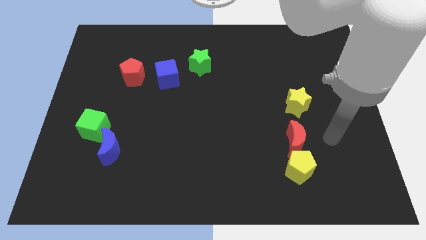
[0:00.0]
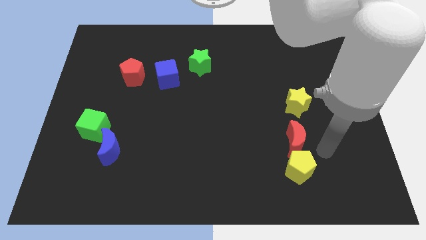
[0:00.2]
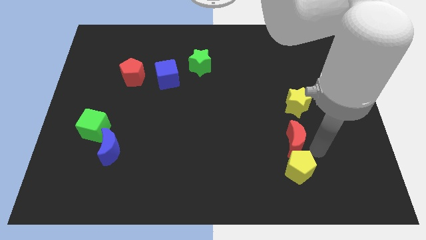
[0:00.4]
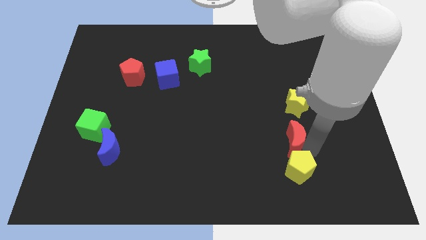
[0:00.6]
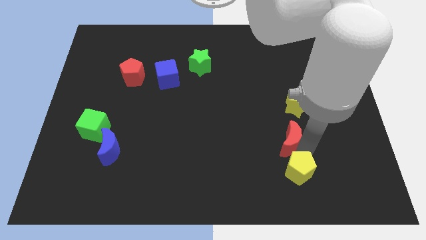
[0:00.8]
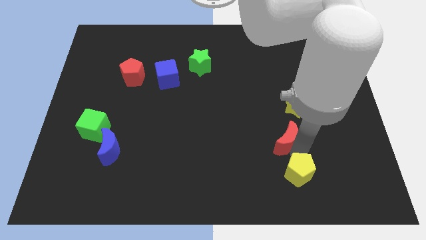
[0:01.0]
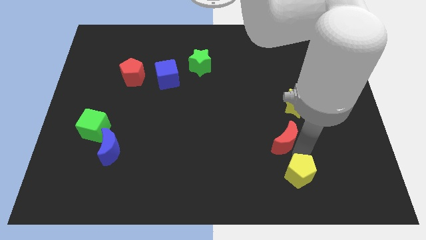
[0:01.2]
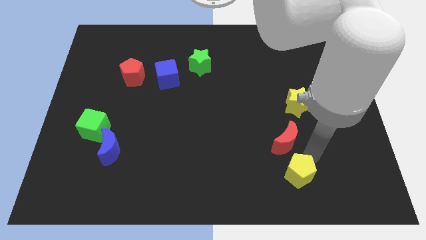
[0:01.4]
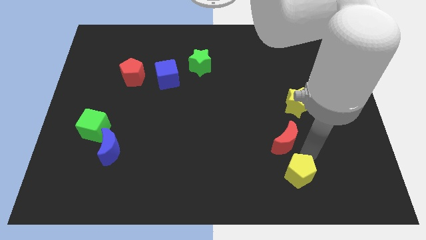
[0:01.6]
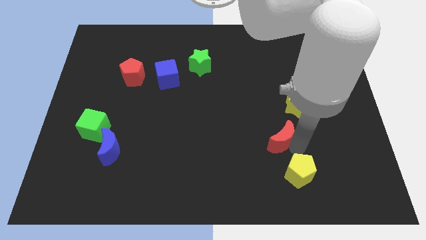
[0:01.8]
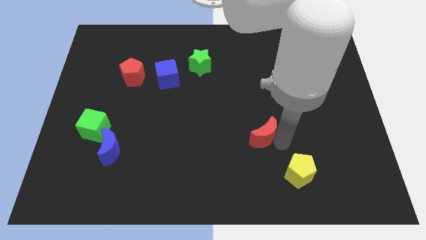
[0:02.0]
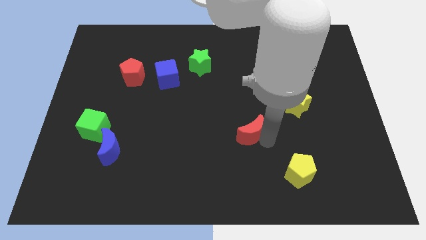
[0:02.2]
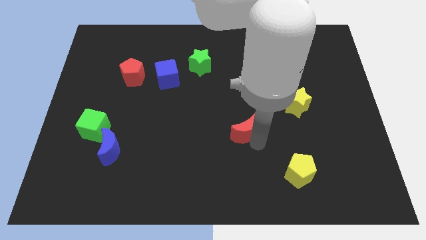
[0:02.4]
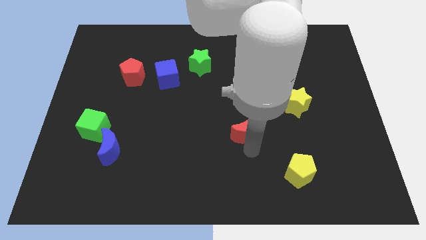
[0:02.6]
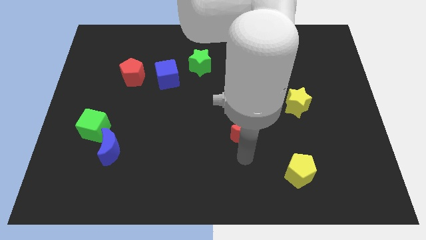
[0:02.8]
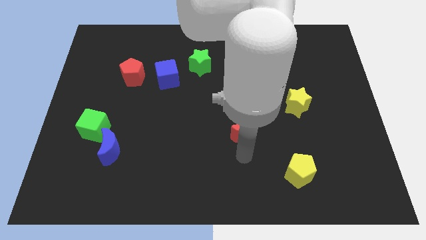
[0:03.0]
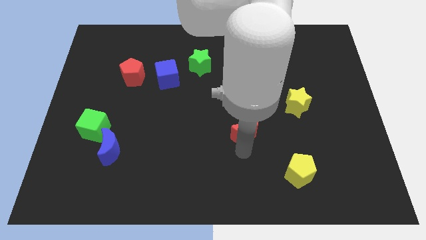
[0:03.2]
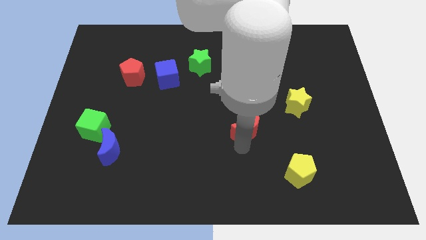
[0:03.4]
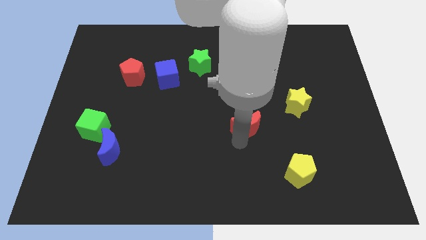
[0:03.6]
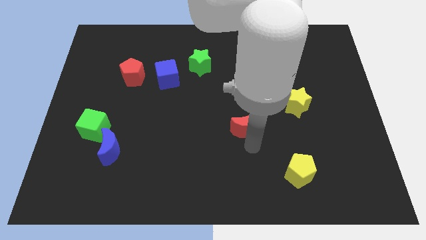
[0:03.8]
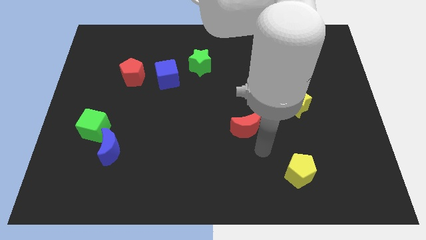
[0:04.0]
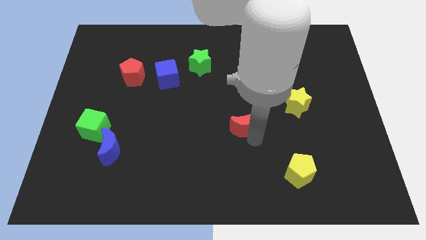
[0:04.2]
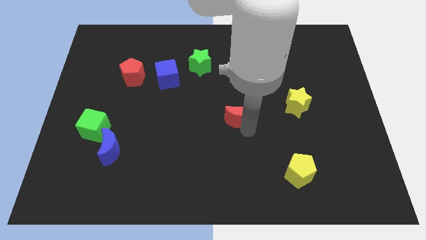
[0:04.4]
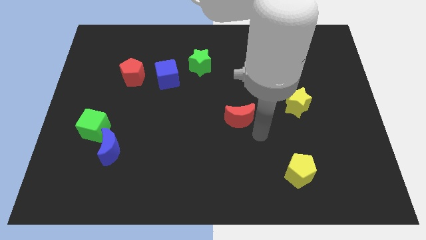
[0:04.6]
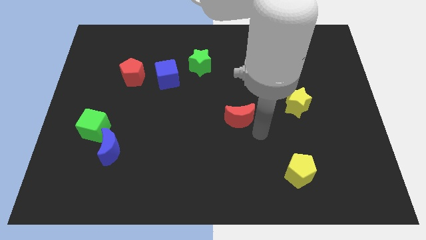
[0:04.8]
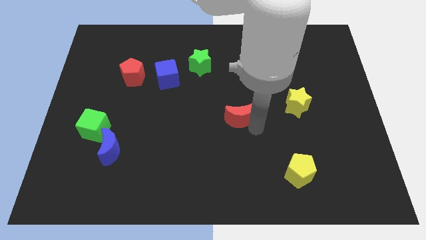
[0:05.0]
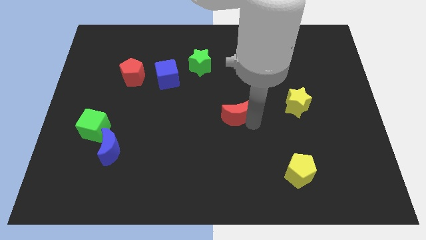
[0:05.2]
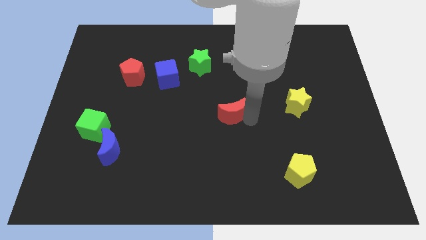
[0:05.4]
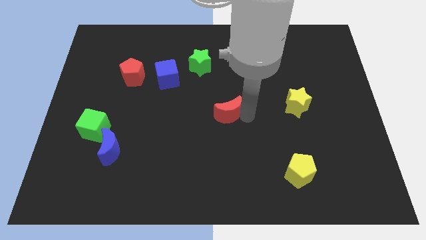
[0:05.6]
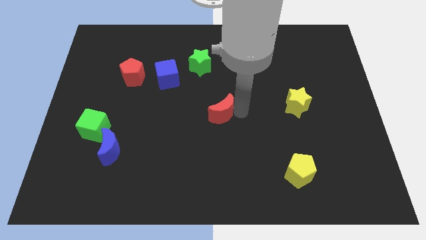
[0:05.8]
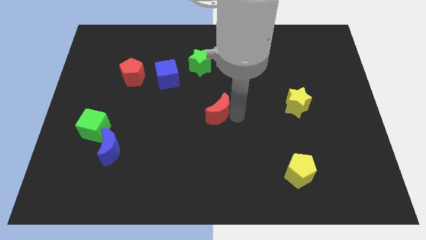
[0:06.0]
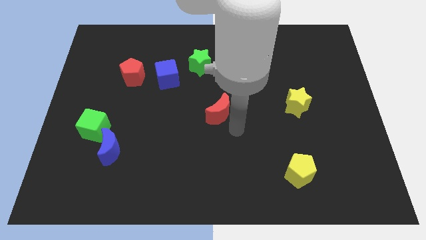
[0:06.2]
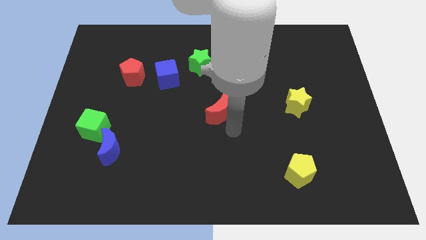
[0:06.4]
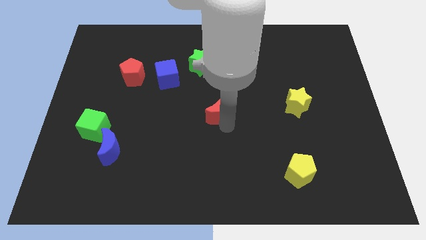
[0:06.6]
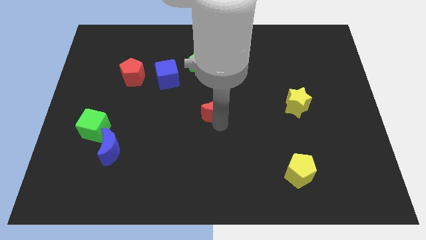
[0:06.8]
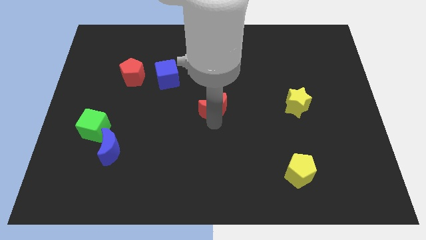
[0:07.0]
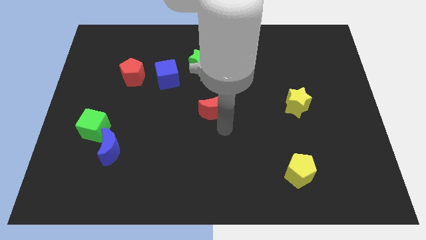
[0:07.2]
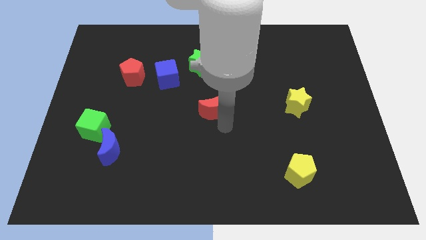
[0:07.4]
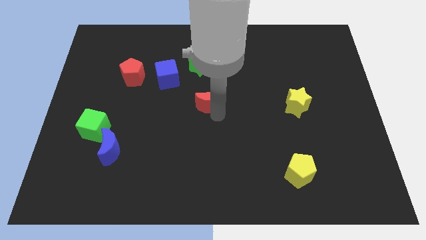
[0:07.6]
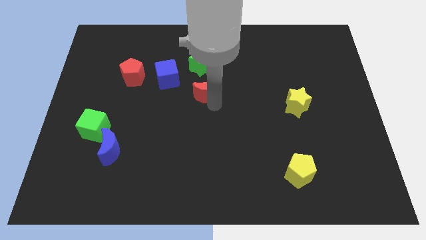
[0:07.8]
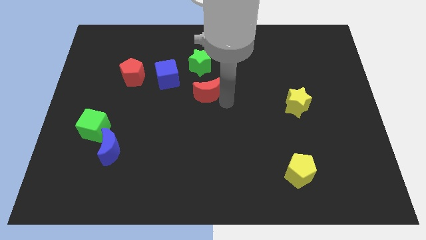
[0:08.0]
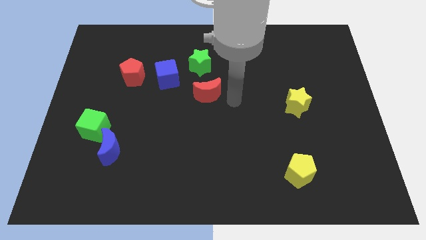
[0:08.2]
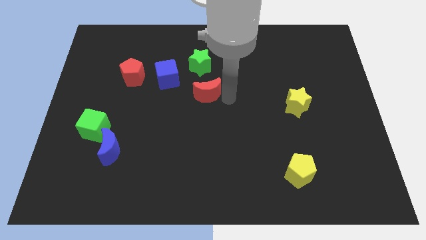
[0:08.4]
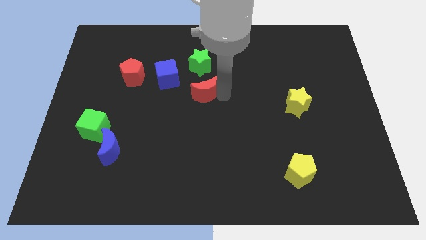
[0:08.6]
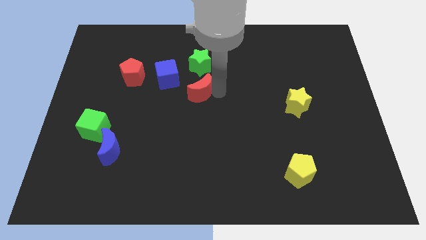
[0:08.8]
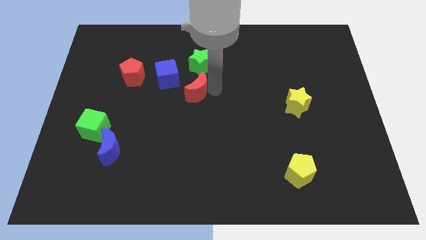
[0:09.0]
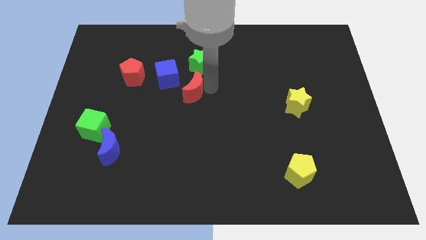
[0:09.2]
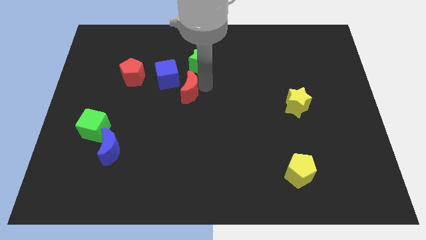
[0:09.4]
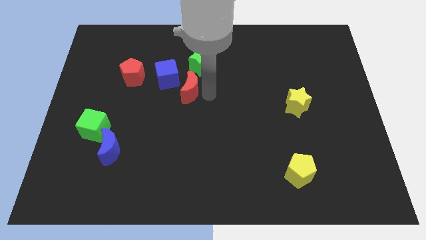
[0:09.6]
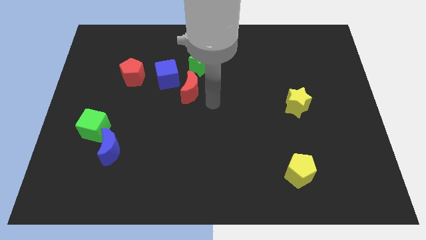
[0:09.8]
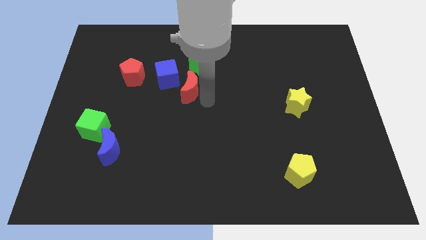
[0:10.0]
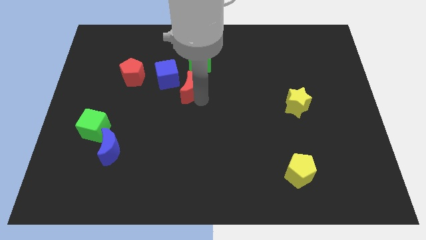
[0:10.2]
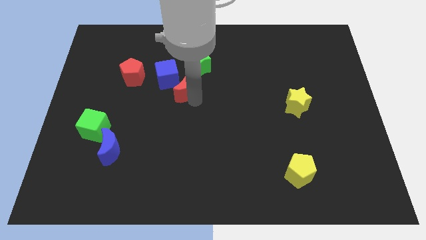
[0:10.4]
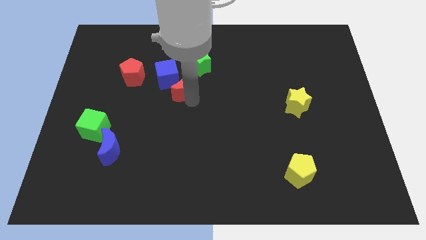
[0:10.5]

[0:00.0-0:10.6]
push the red moon to the blue cube

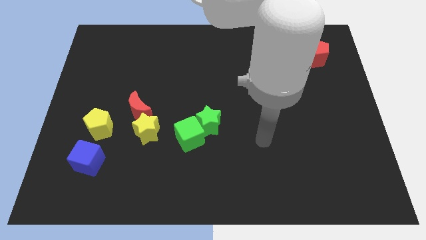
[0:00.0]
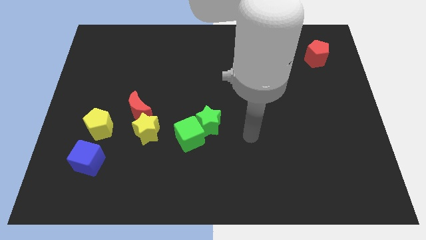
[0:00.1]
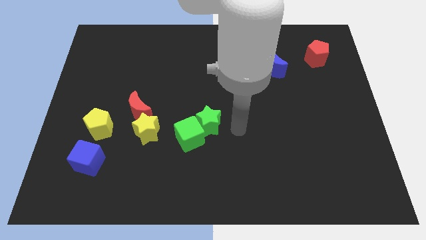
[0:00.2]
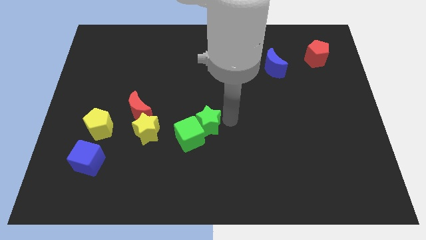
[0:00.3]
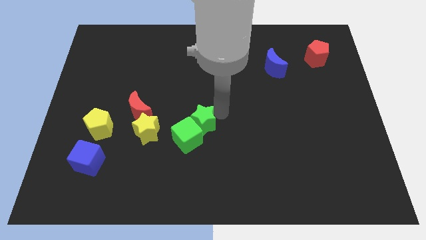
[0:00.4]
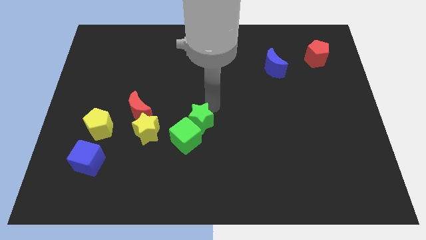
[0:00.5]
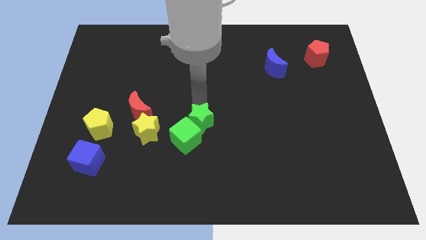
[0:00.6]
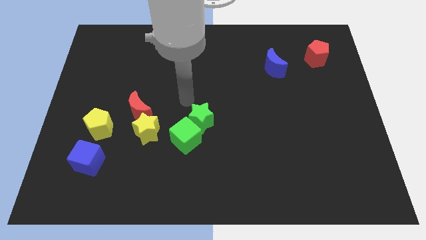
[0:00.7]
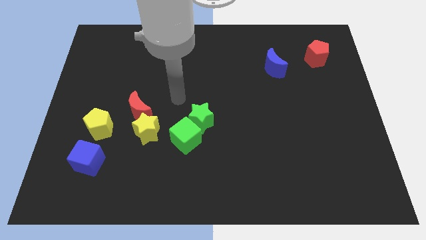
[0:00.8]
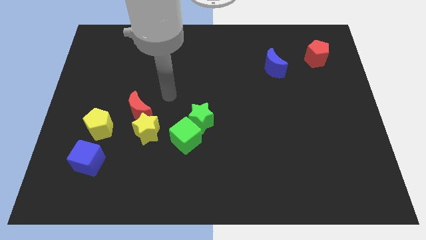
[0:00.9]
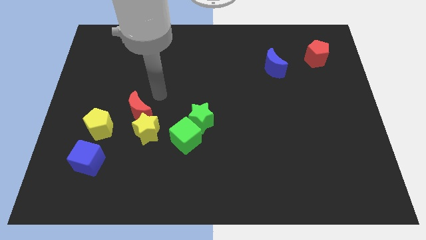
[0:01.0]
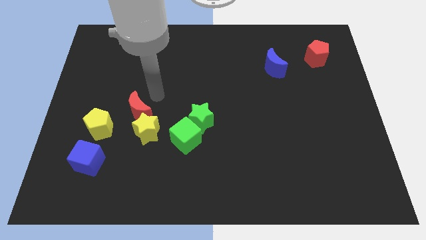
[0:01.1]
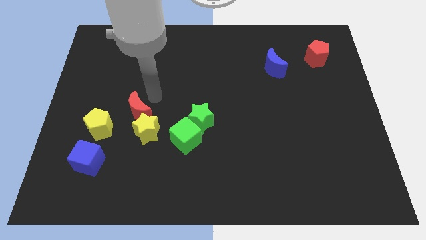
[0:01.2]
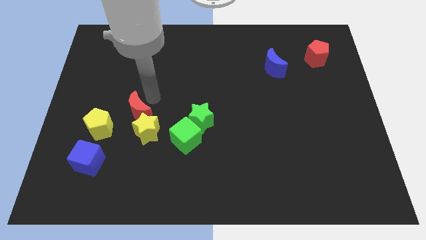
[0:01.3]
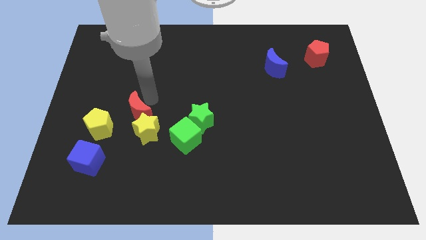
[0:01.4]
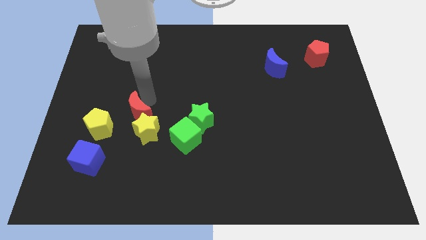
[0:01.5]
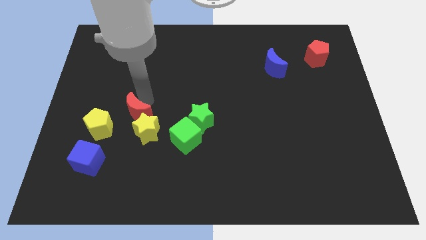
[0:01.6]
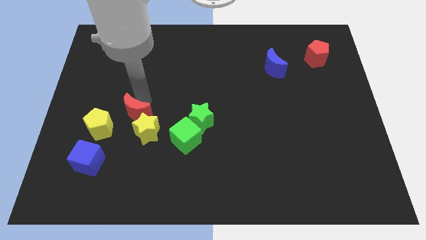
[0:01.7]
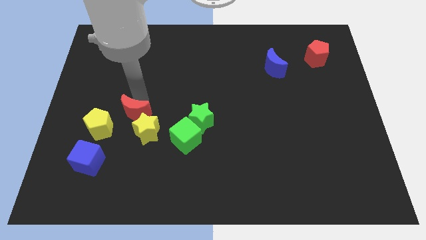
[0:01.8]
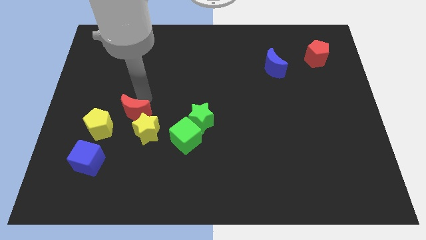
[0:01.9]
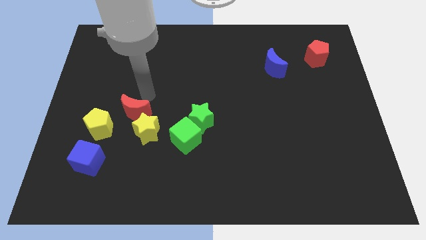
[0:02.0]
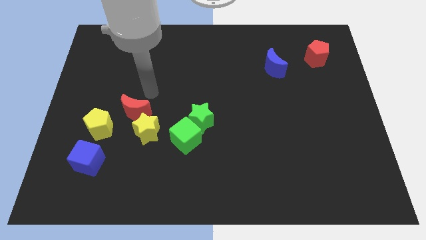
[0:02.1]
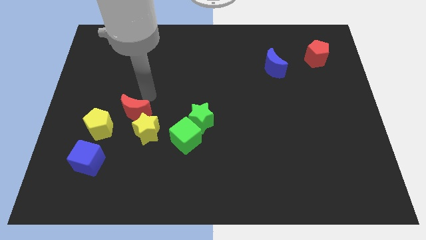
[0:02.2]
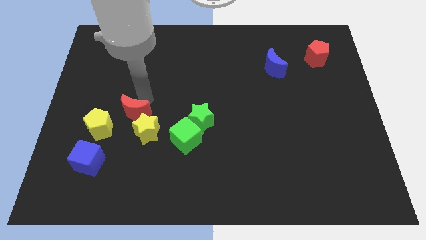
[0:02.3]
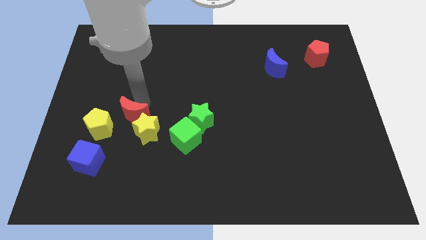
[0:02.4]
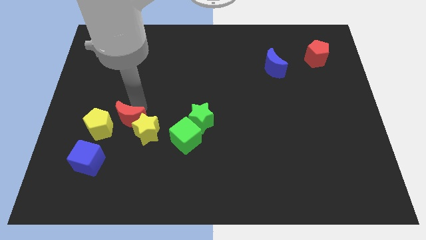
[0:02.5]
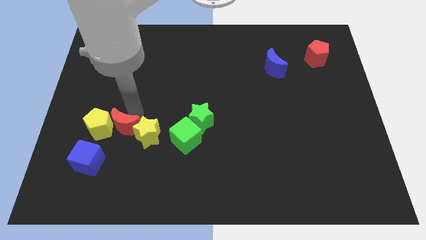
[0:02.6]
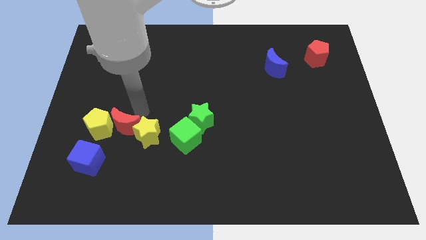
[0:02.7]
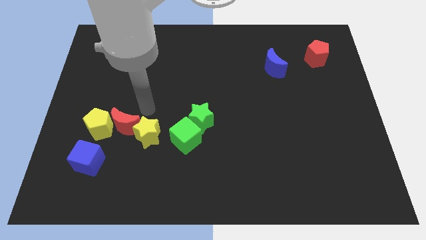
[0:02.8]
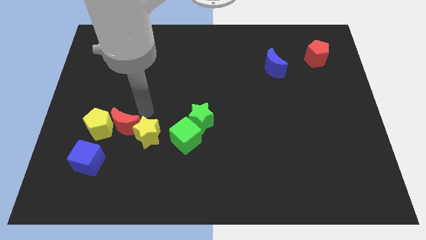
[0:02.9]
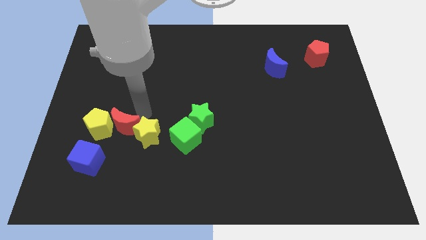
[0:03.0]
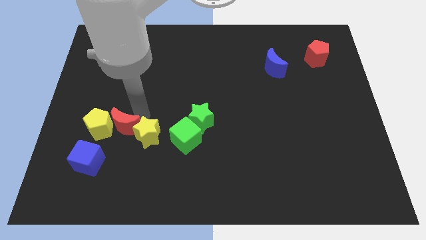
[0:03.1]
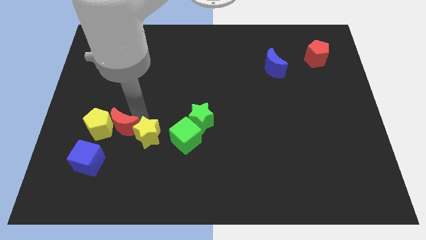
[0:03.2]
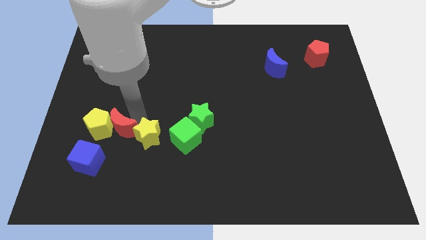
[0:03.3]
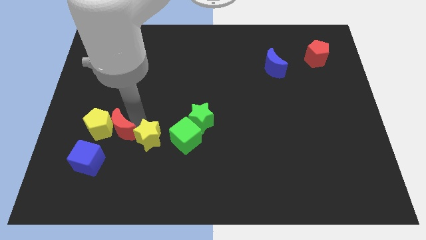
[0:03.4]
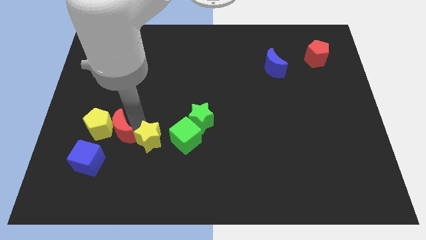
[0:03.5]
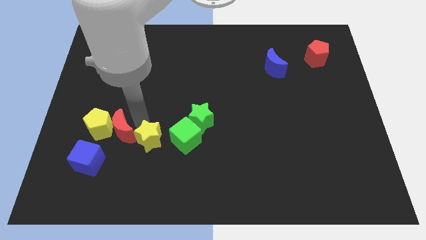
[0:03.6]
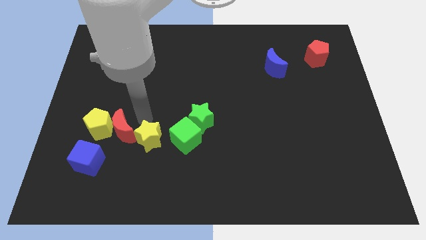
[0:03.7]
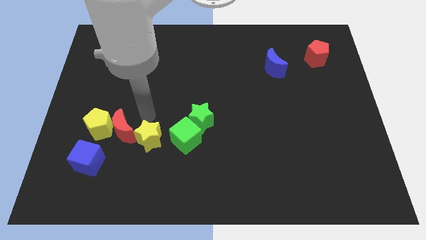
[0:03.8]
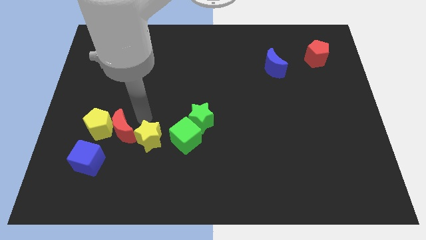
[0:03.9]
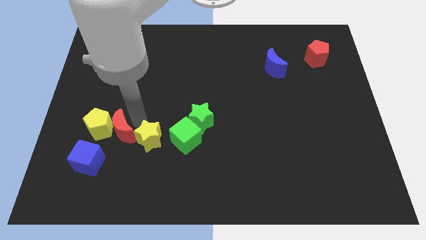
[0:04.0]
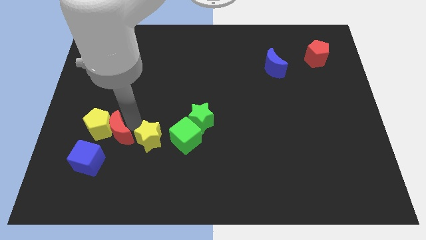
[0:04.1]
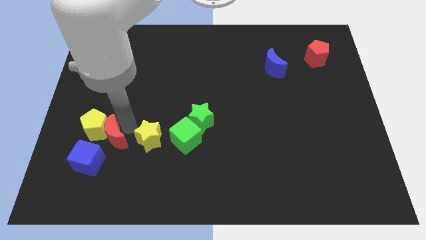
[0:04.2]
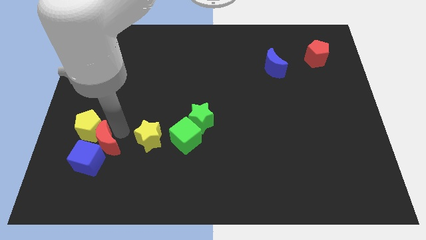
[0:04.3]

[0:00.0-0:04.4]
slide the red moon next to the blue cube
